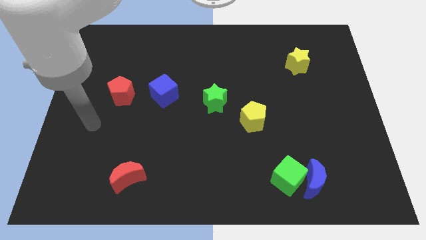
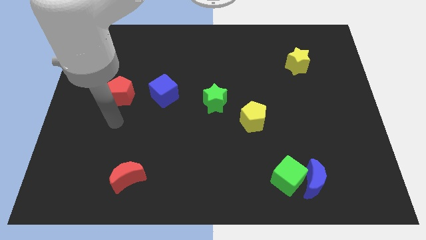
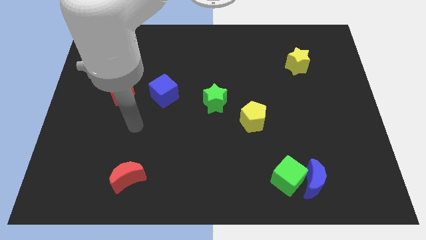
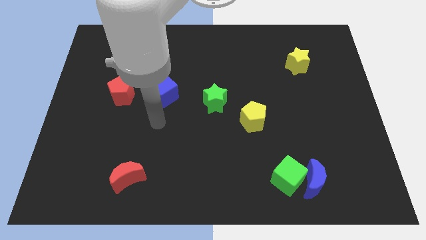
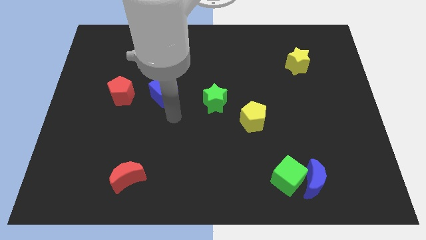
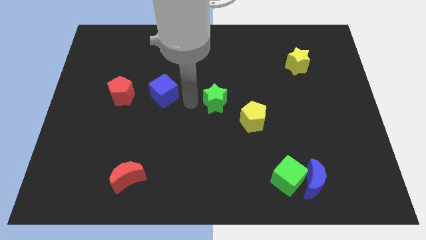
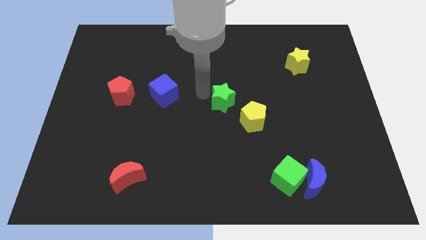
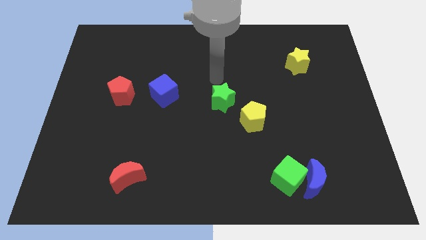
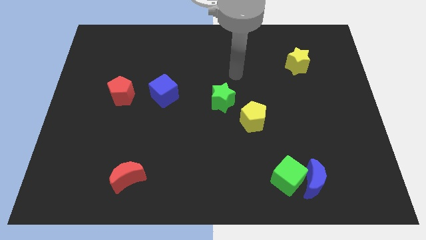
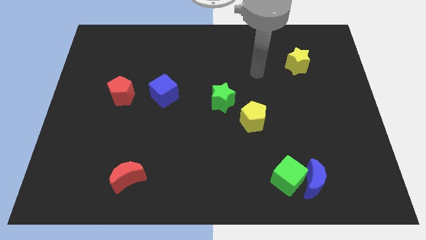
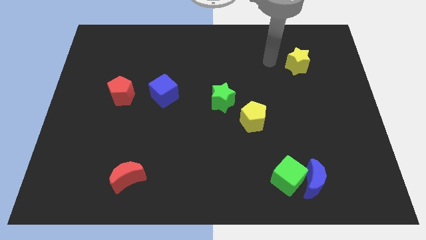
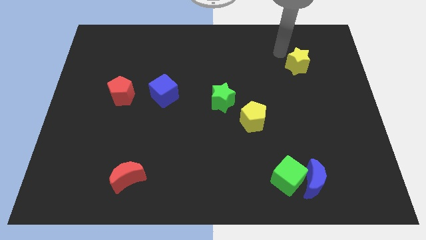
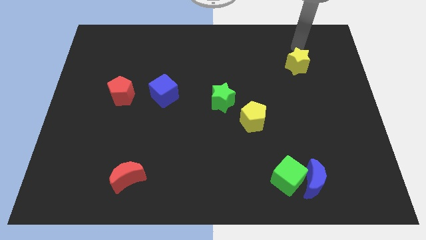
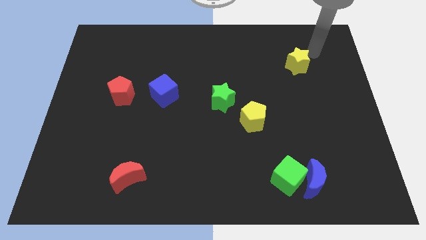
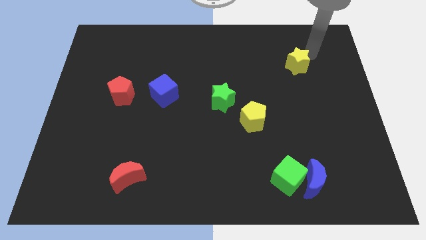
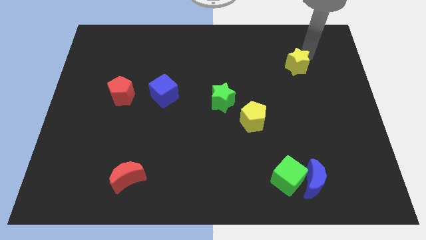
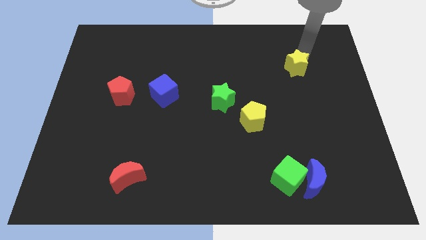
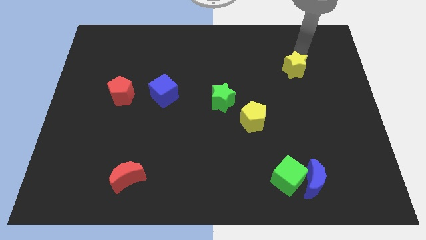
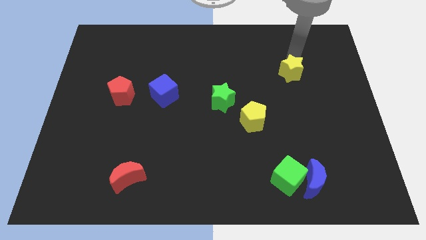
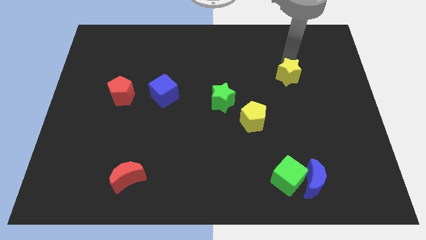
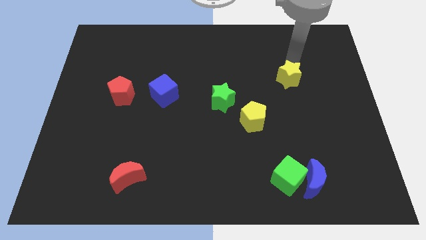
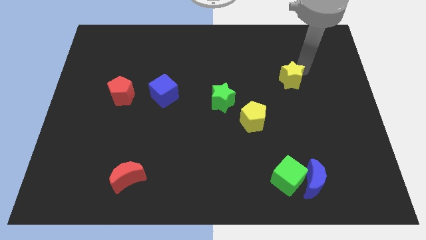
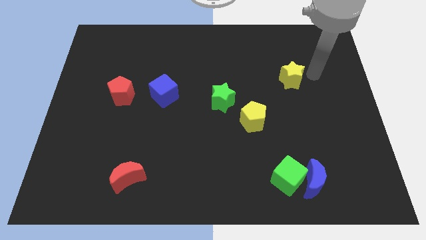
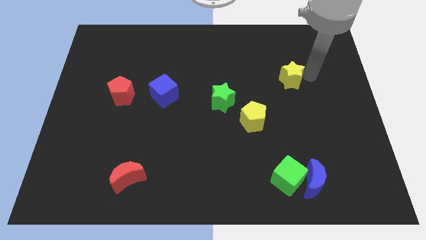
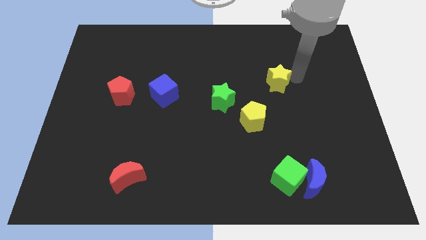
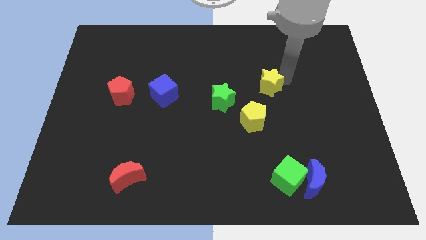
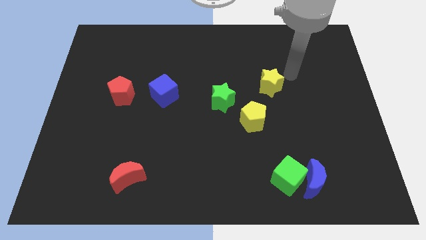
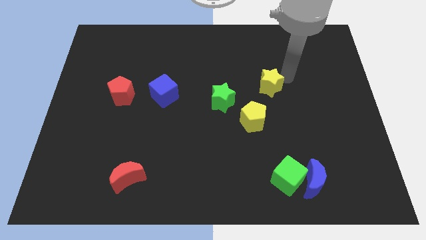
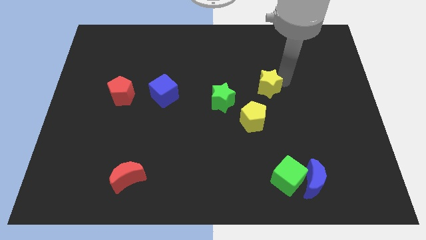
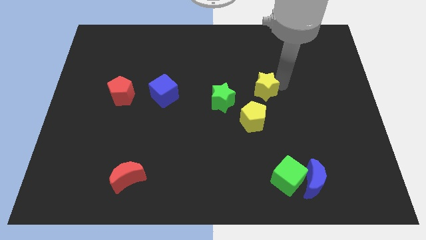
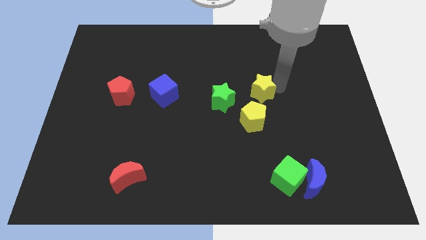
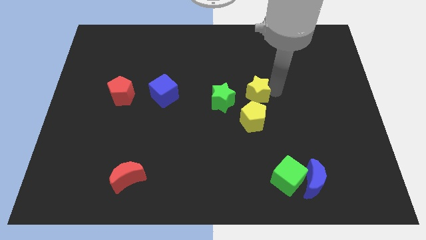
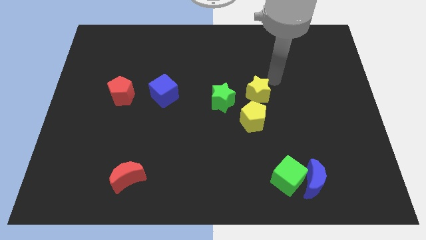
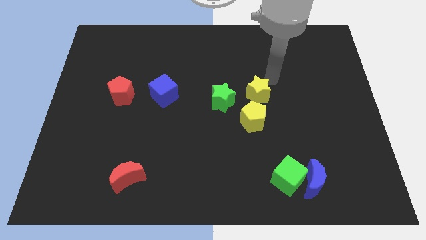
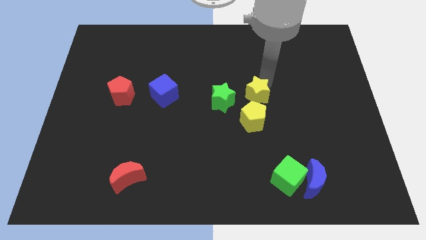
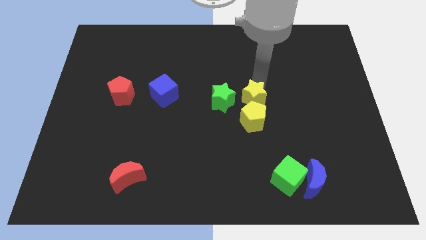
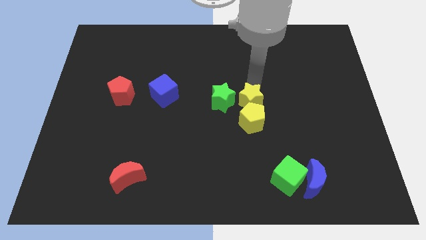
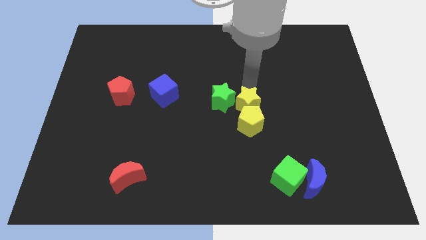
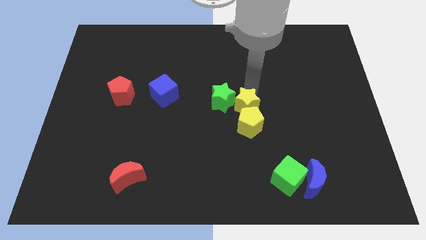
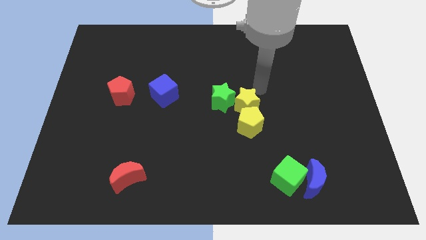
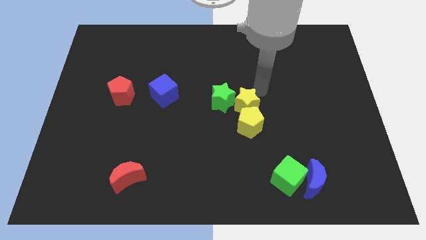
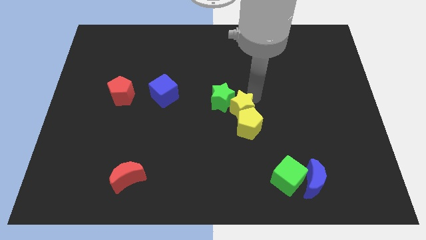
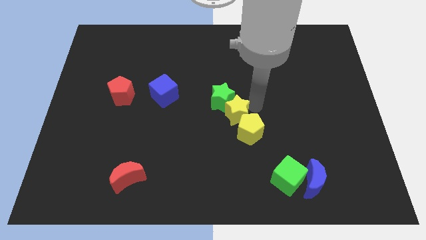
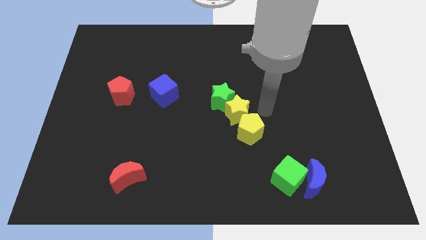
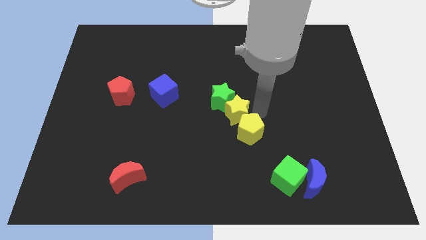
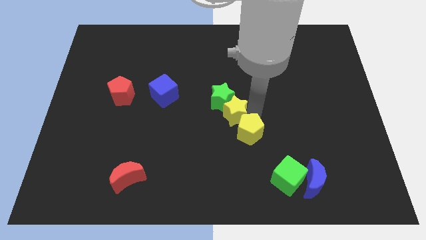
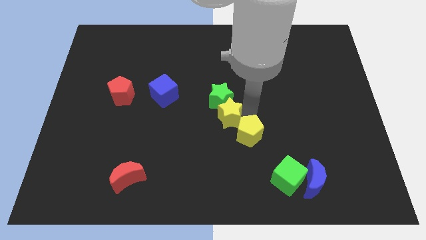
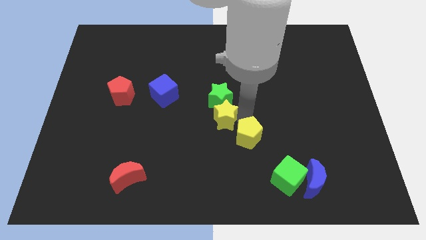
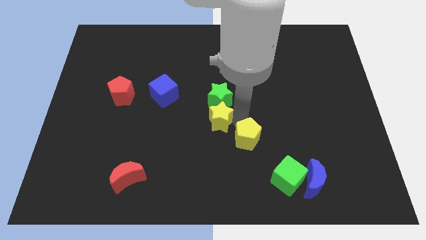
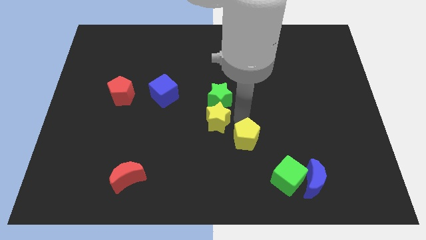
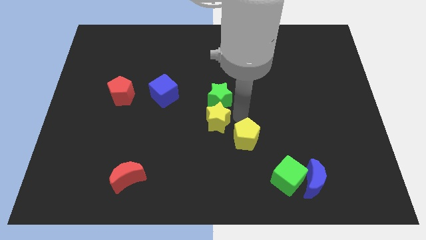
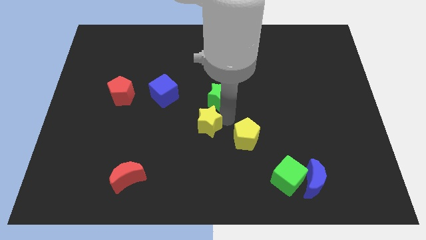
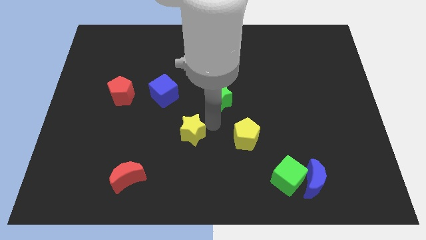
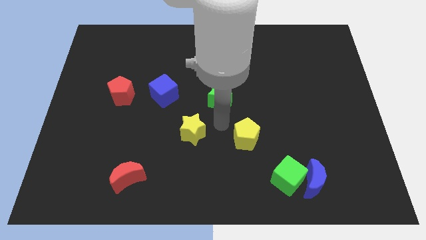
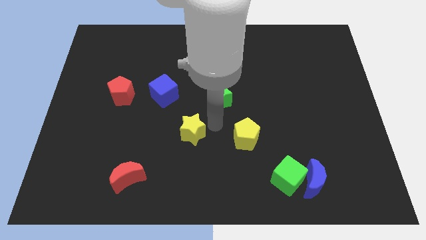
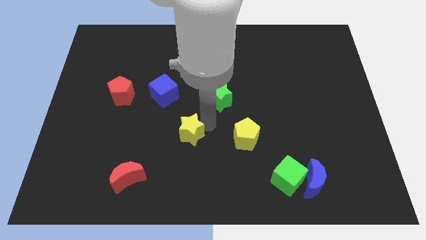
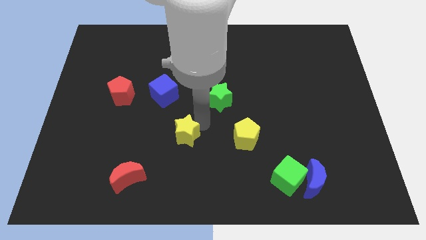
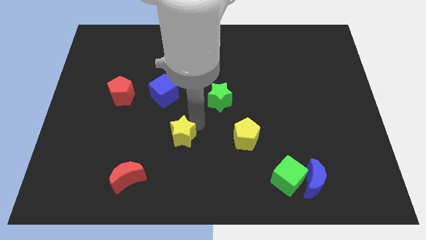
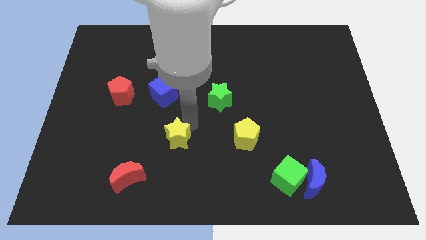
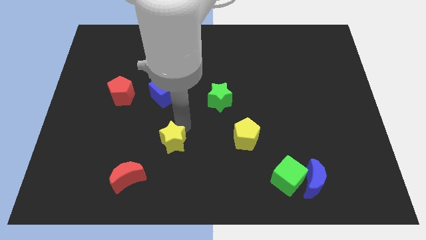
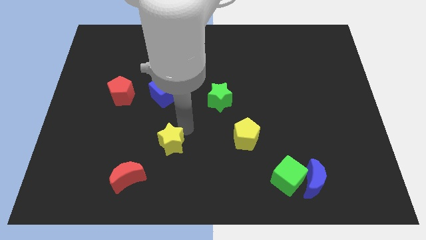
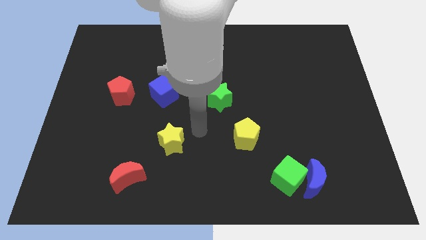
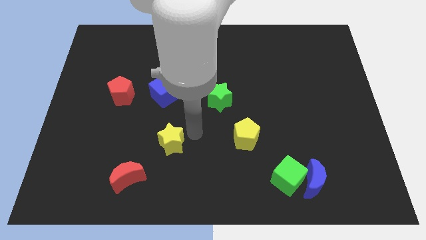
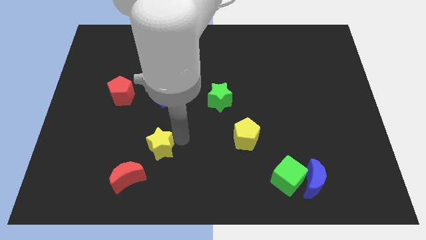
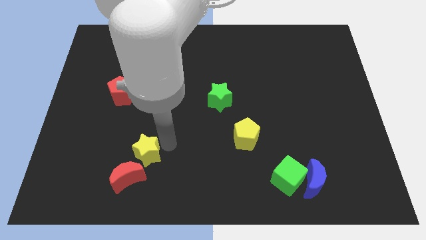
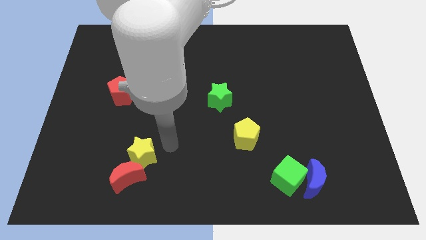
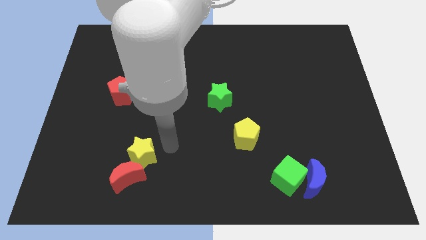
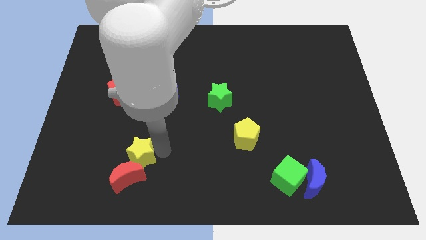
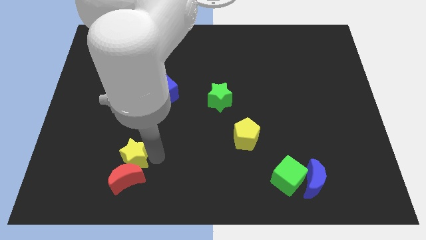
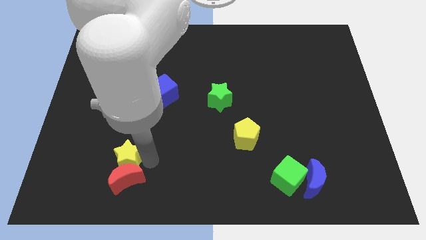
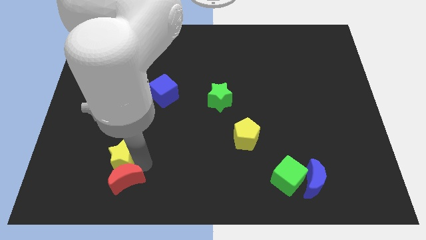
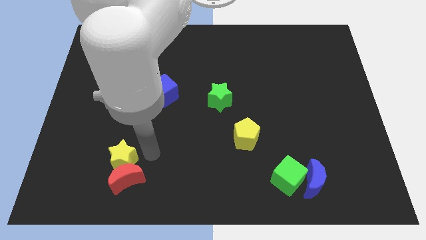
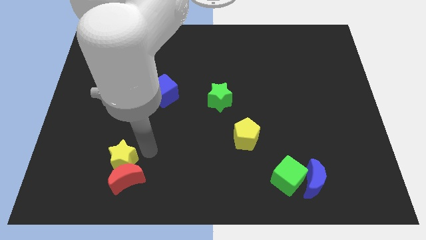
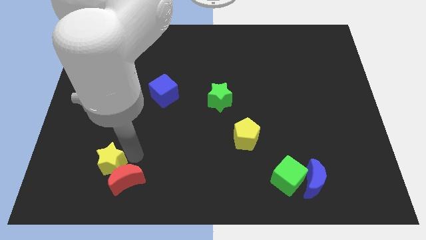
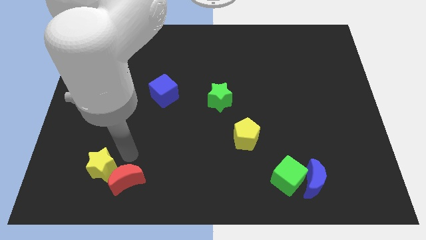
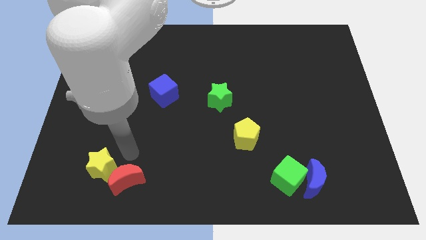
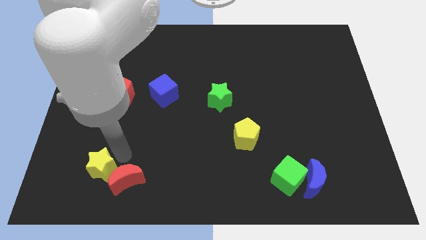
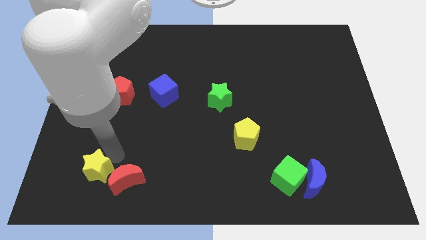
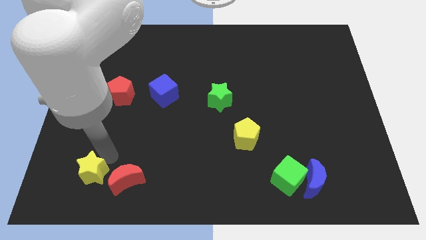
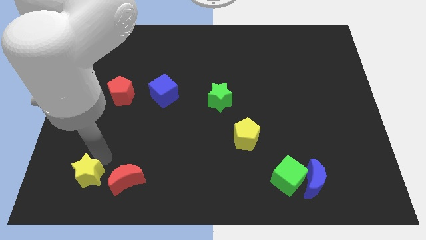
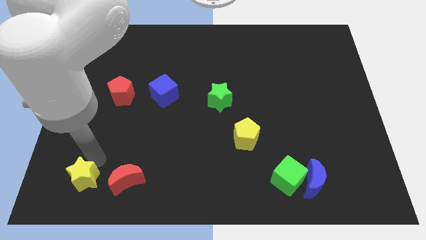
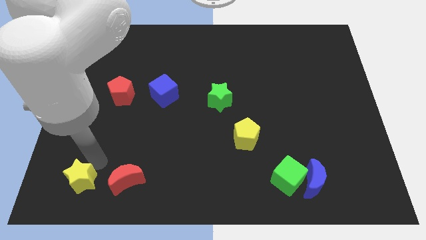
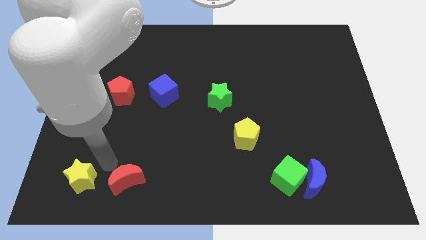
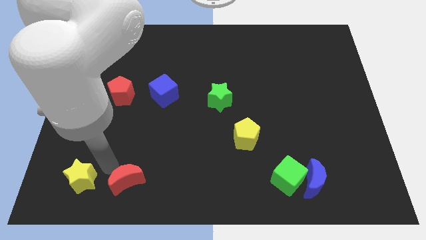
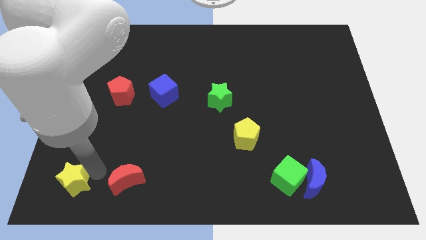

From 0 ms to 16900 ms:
put the yellow star to the bottom left of the board

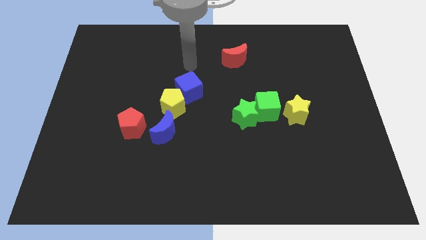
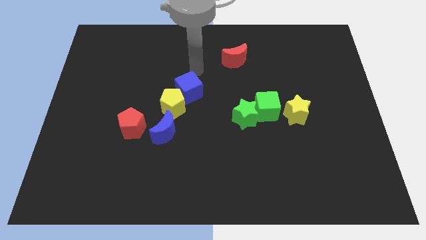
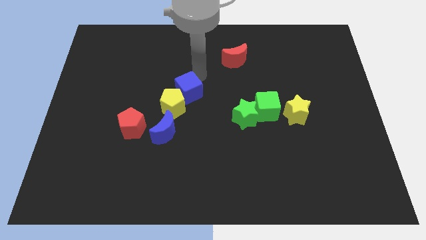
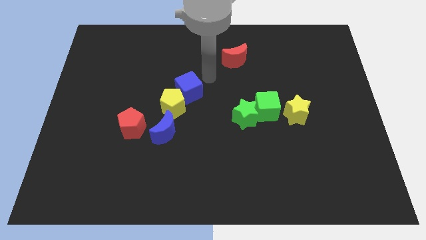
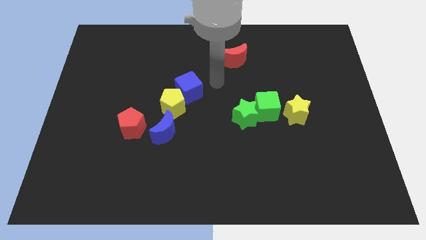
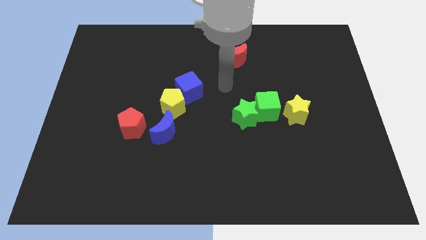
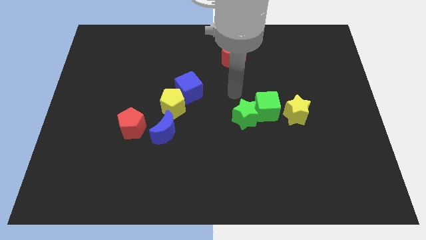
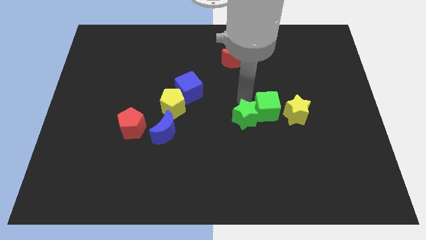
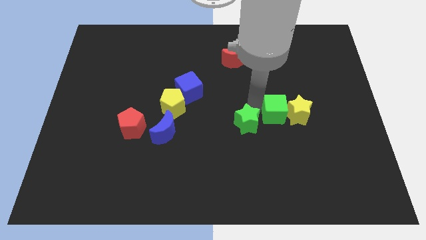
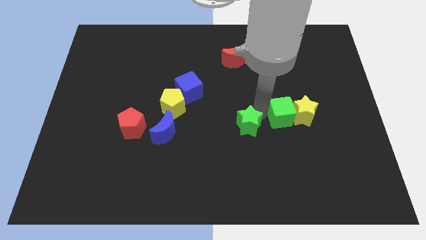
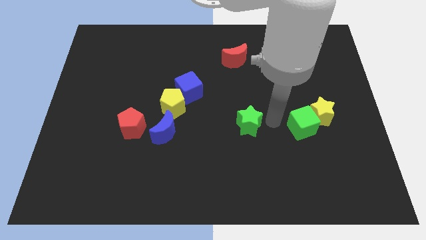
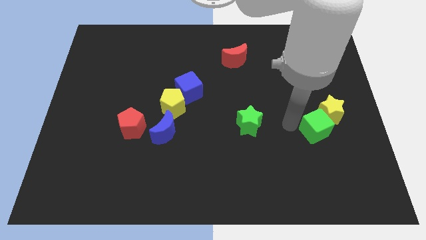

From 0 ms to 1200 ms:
move the yellow star to the right side
